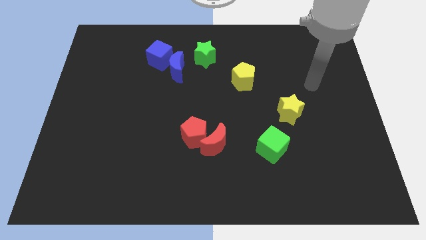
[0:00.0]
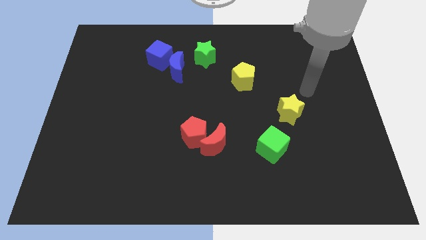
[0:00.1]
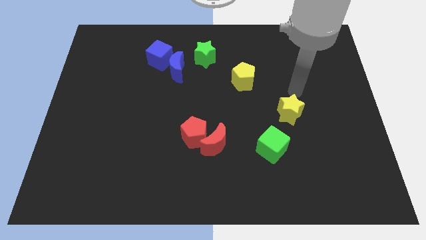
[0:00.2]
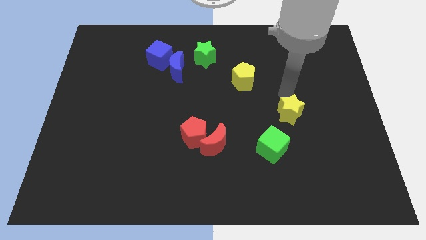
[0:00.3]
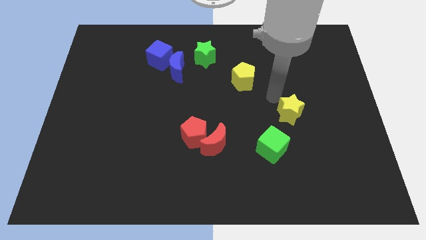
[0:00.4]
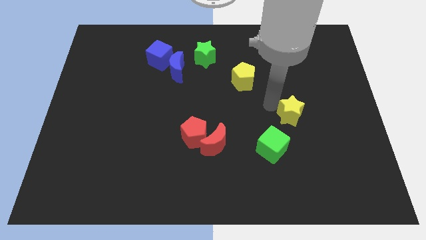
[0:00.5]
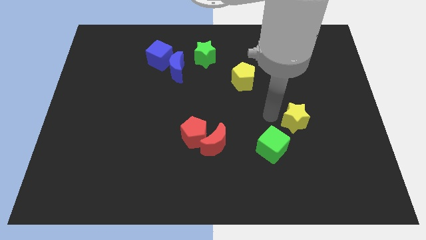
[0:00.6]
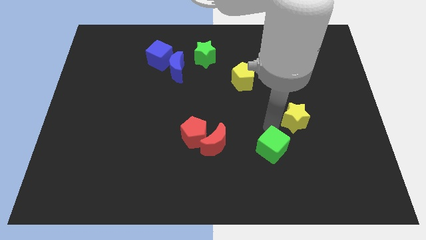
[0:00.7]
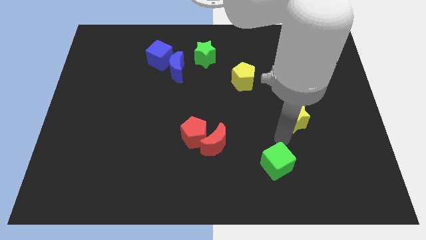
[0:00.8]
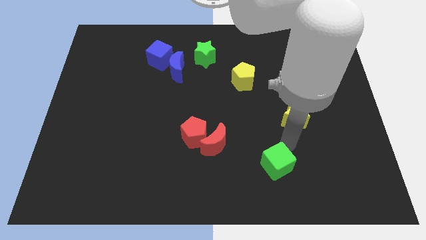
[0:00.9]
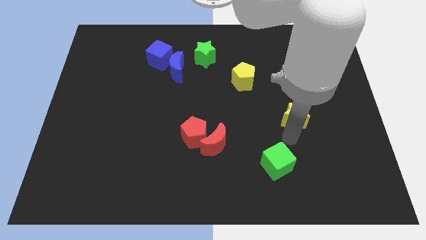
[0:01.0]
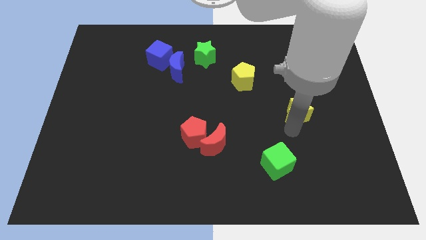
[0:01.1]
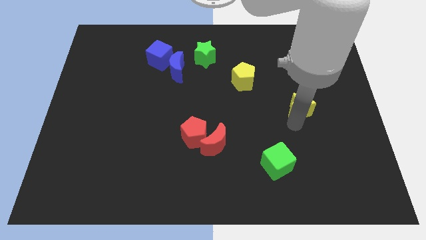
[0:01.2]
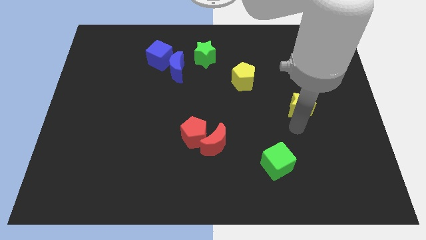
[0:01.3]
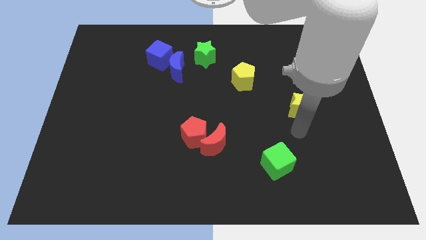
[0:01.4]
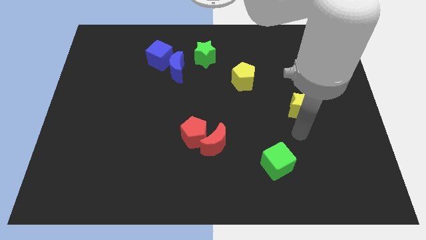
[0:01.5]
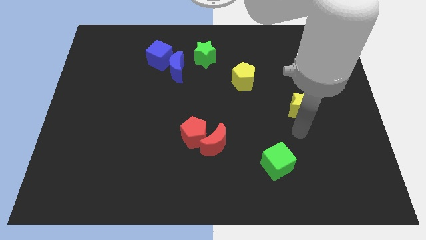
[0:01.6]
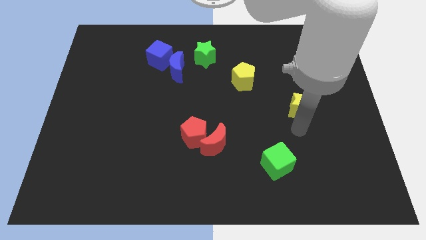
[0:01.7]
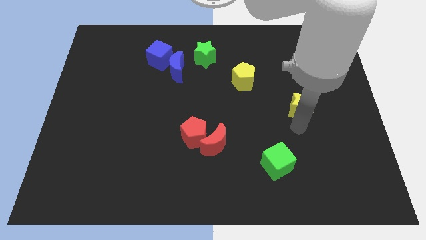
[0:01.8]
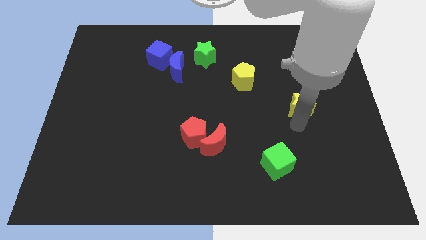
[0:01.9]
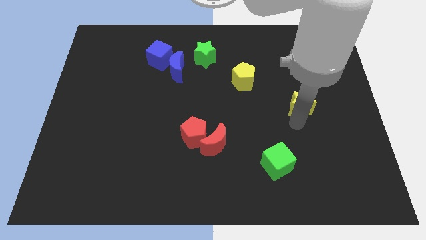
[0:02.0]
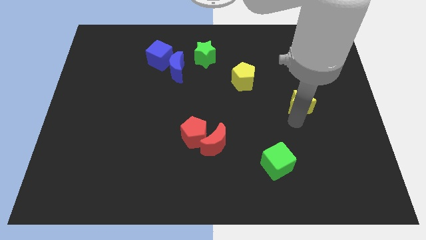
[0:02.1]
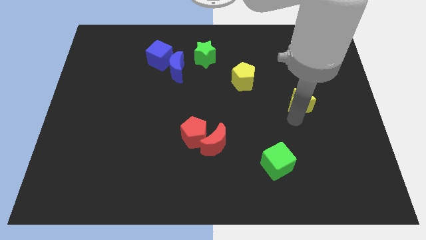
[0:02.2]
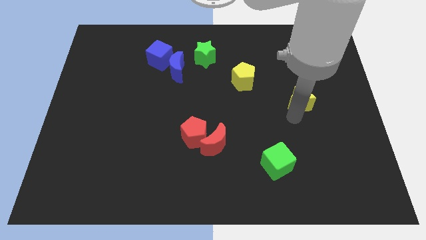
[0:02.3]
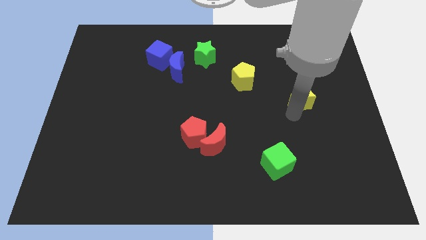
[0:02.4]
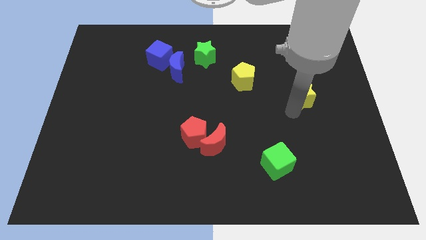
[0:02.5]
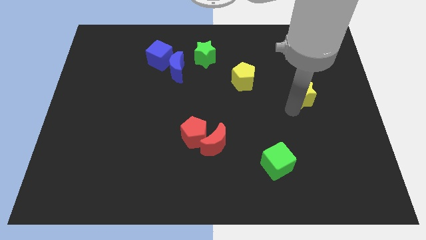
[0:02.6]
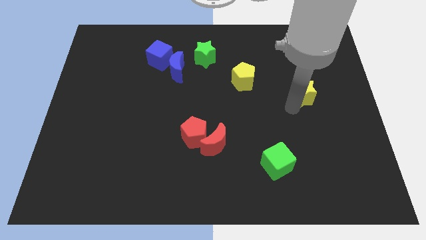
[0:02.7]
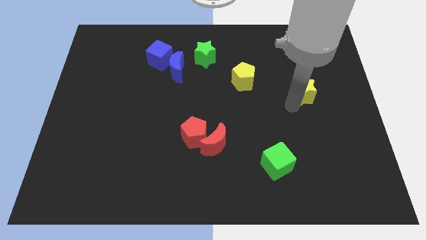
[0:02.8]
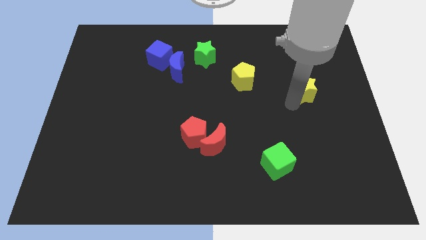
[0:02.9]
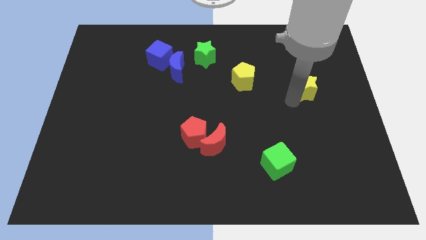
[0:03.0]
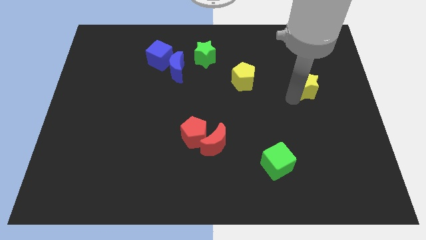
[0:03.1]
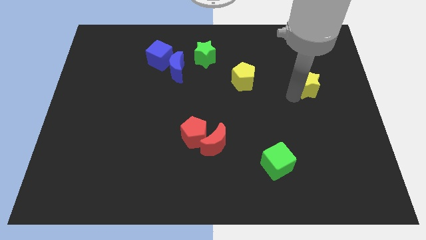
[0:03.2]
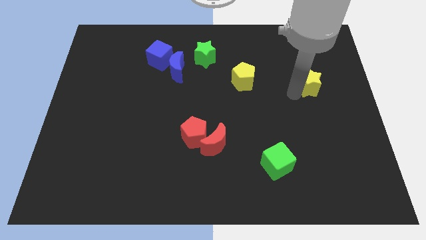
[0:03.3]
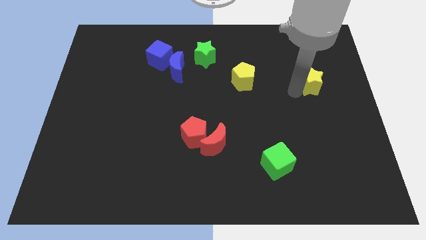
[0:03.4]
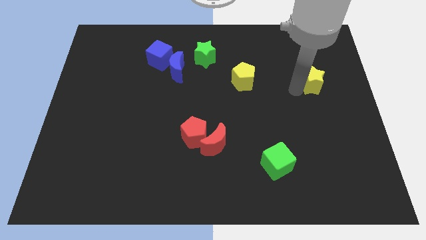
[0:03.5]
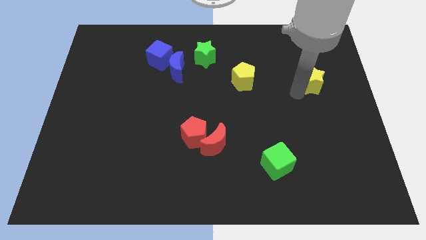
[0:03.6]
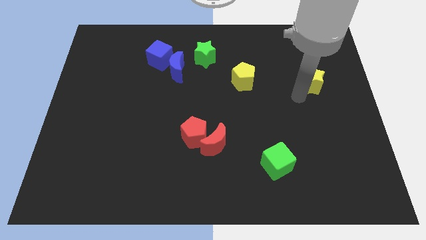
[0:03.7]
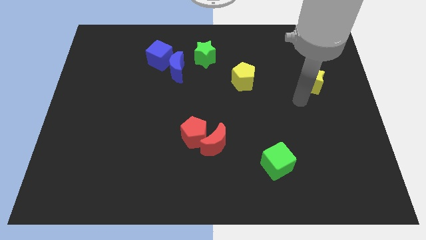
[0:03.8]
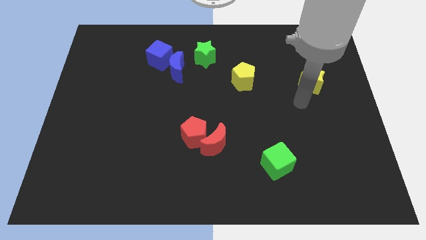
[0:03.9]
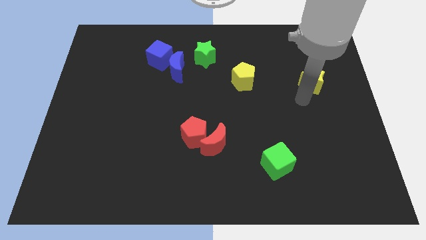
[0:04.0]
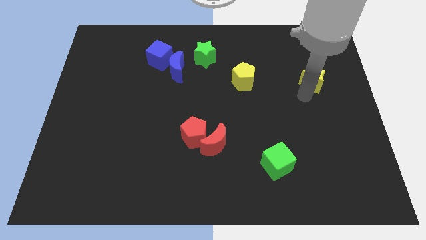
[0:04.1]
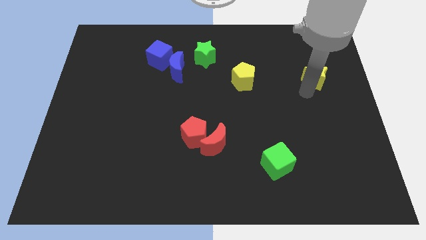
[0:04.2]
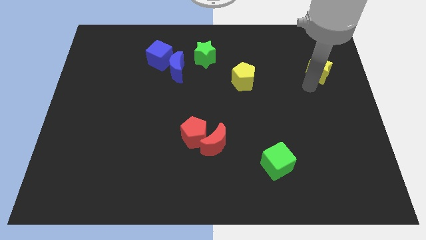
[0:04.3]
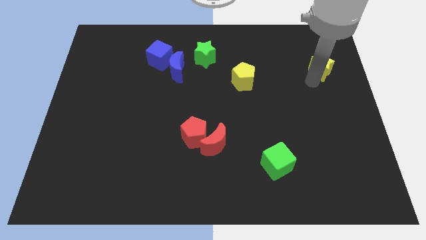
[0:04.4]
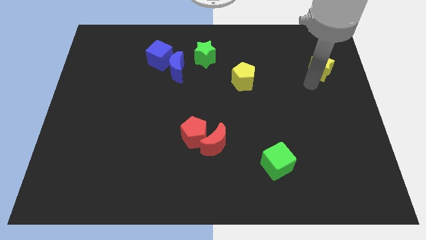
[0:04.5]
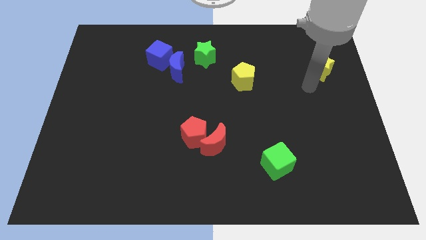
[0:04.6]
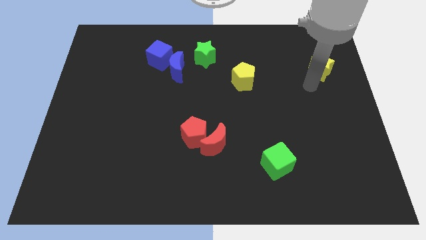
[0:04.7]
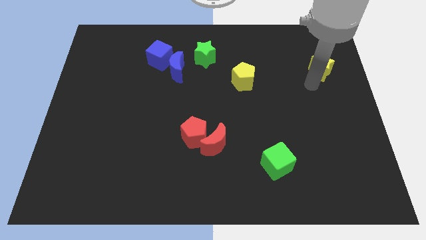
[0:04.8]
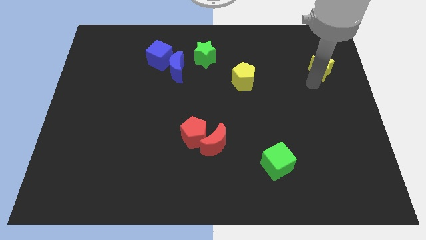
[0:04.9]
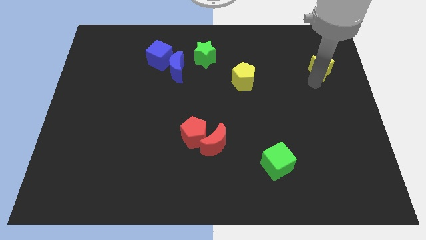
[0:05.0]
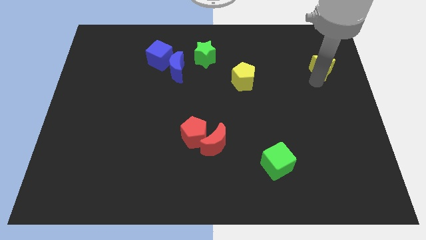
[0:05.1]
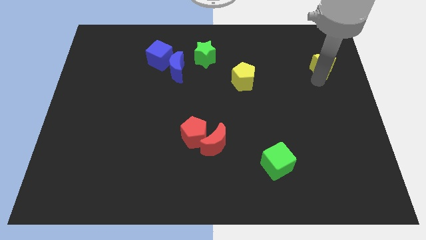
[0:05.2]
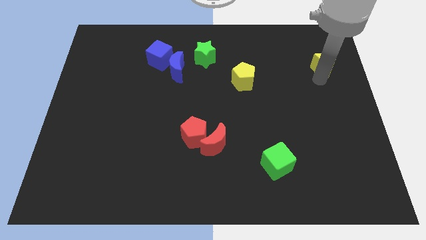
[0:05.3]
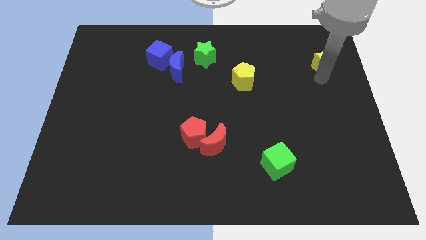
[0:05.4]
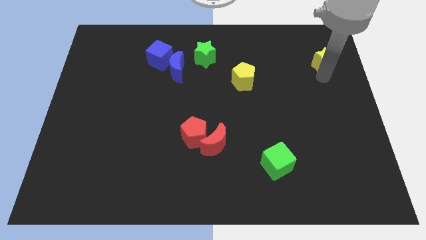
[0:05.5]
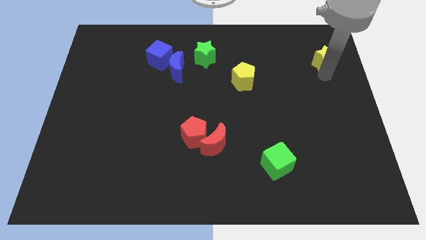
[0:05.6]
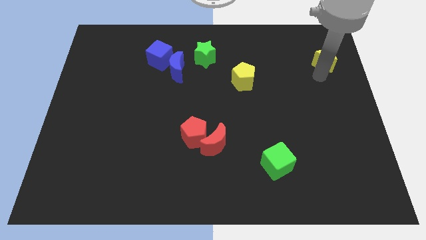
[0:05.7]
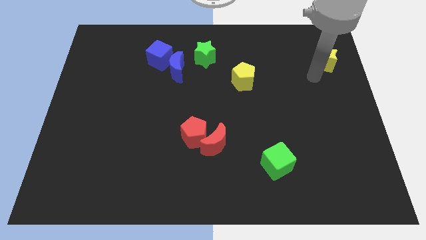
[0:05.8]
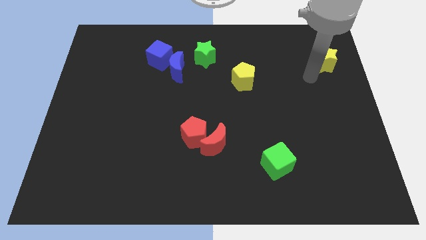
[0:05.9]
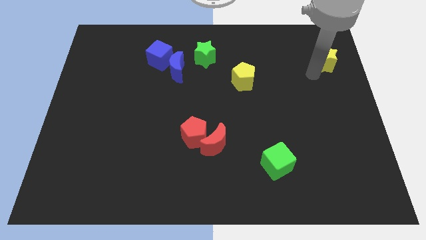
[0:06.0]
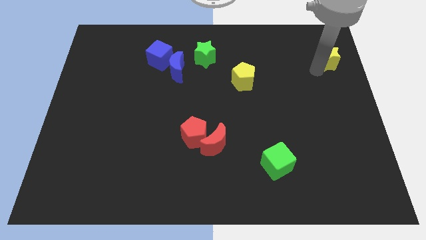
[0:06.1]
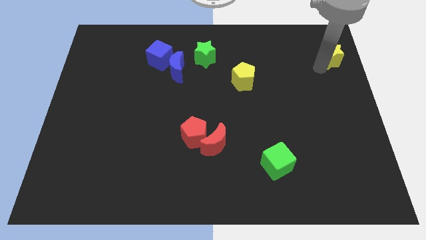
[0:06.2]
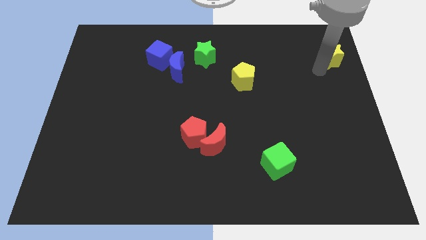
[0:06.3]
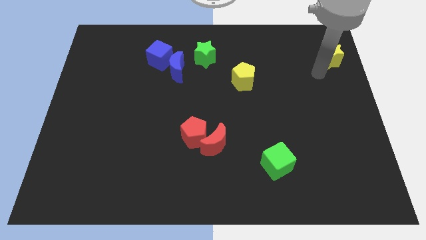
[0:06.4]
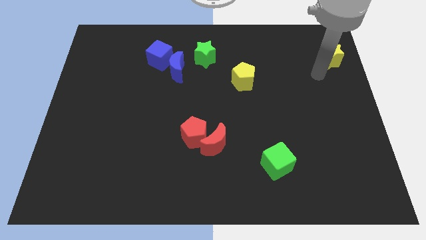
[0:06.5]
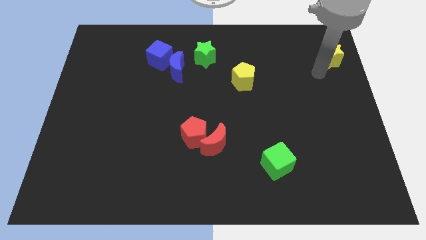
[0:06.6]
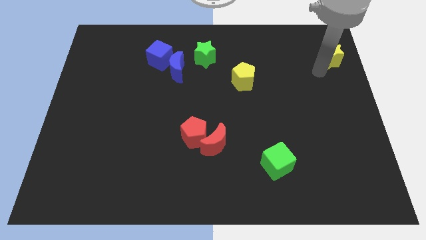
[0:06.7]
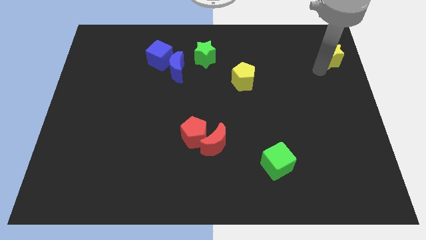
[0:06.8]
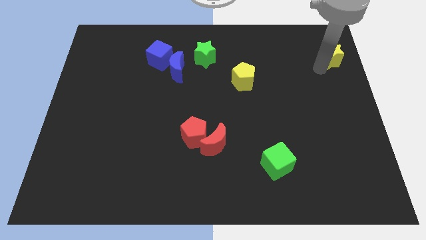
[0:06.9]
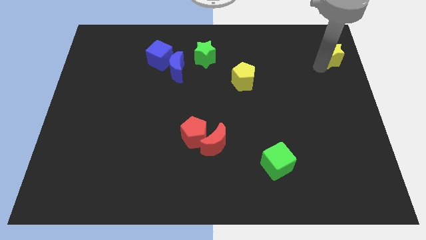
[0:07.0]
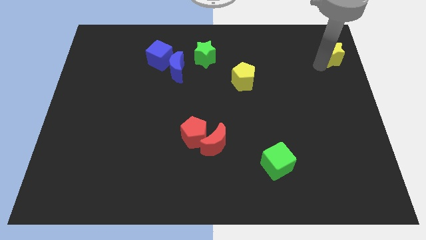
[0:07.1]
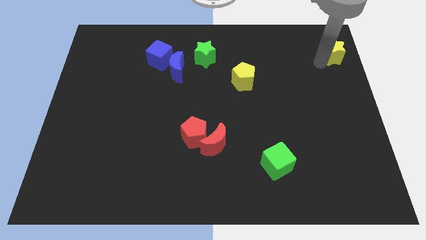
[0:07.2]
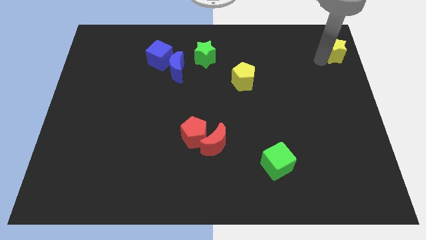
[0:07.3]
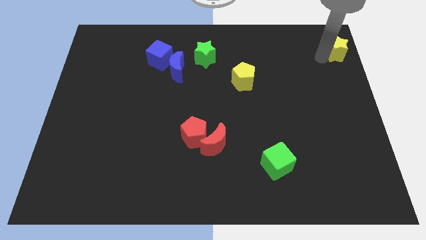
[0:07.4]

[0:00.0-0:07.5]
slide the yellow star to the top right
